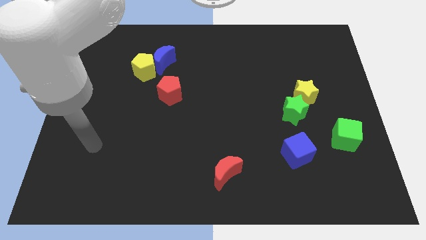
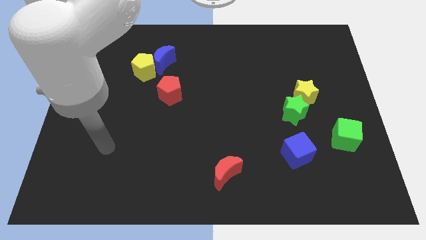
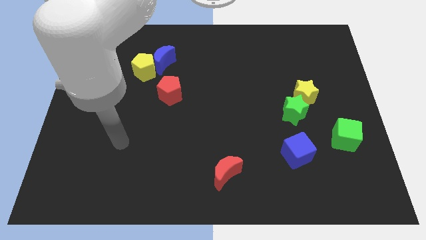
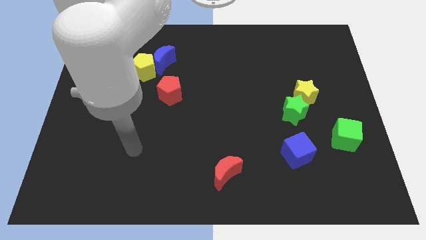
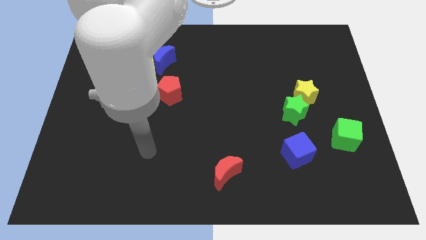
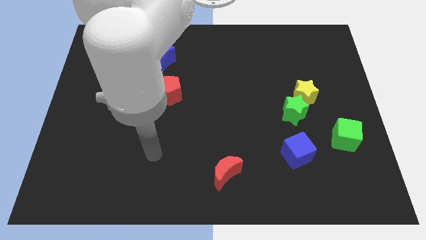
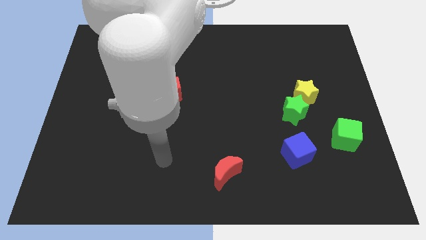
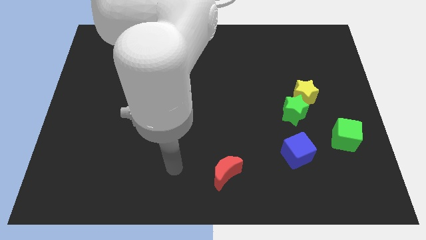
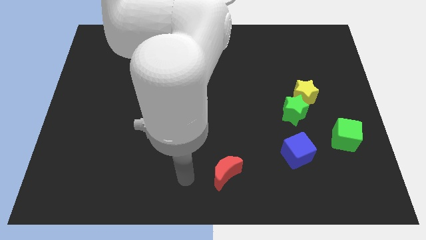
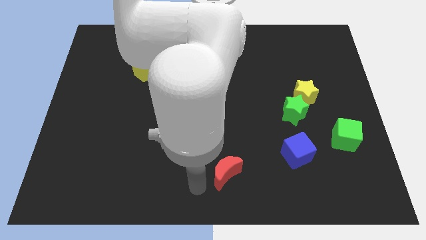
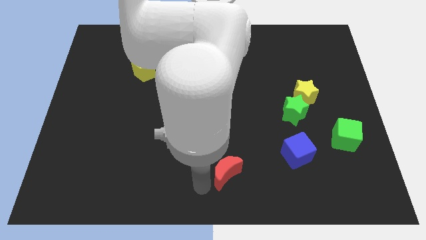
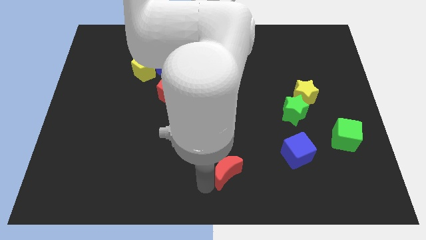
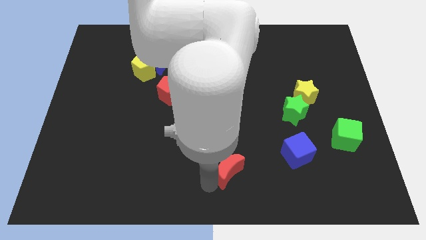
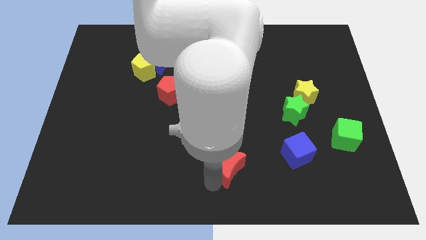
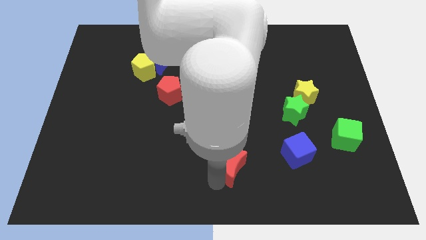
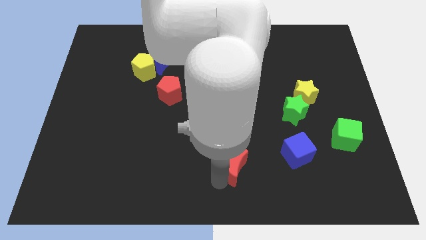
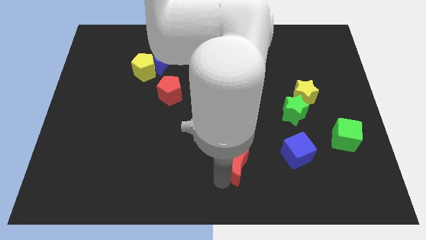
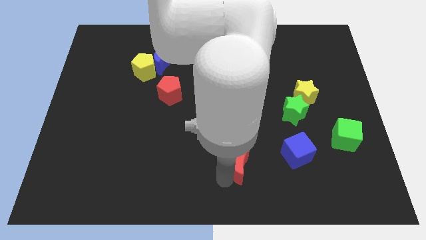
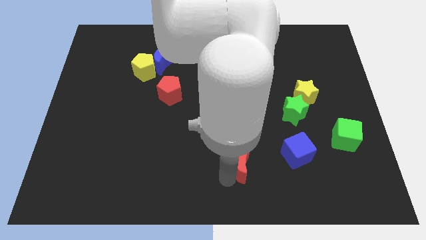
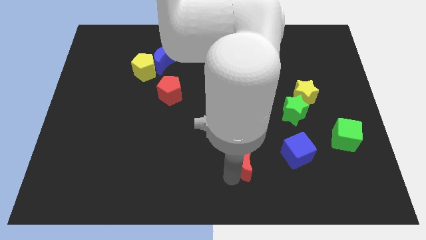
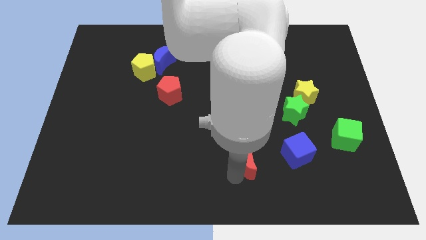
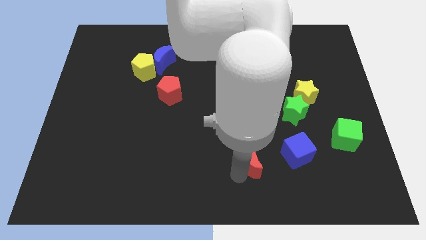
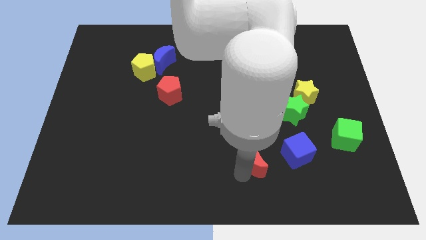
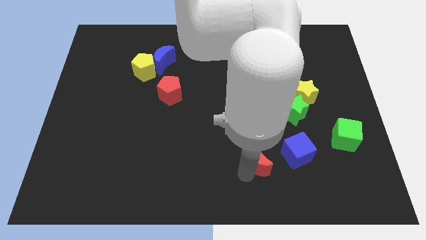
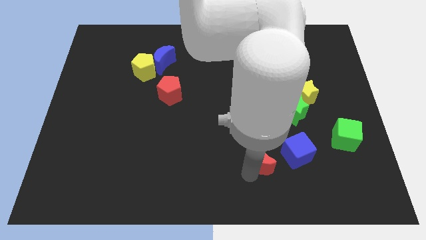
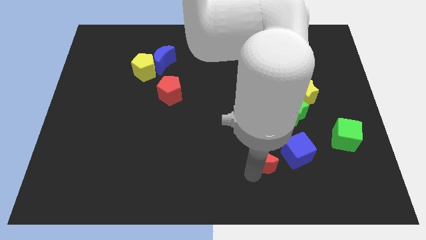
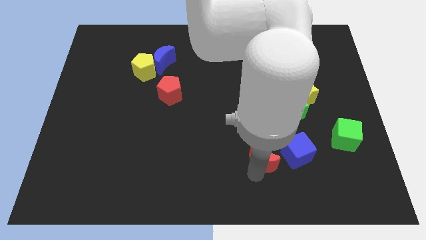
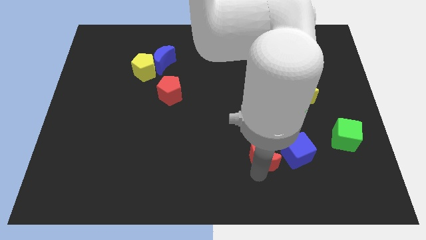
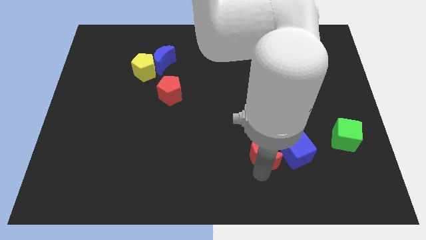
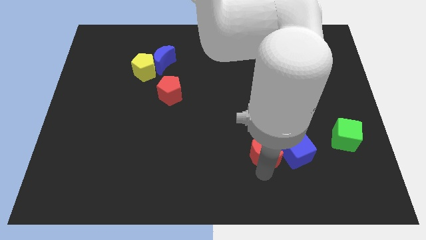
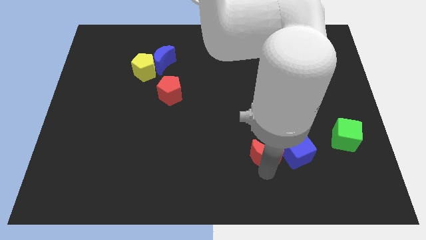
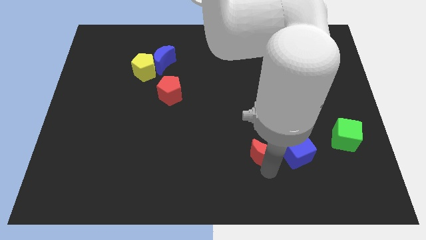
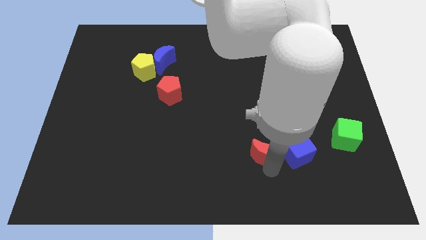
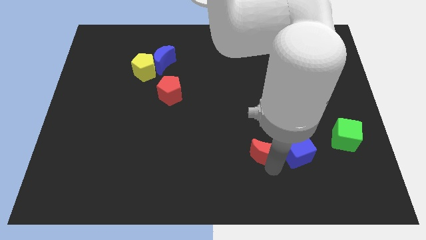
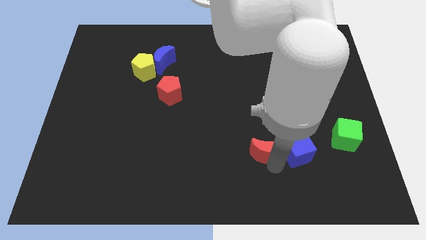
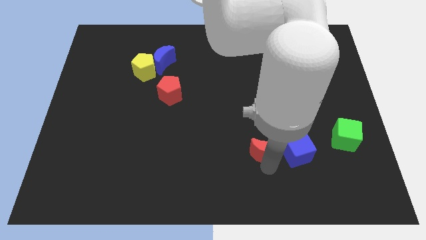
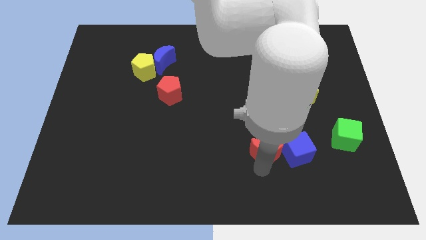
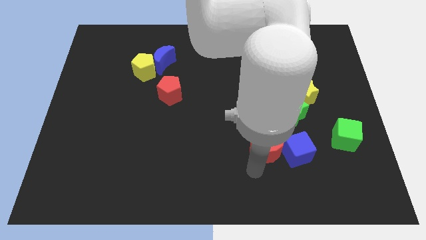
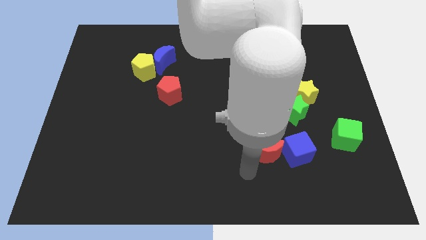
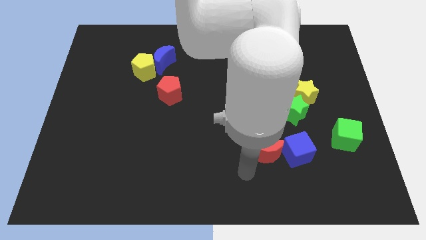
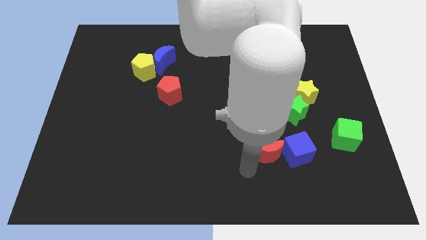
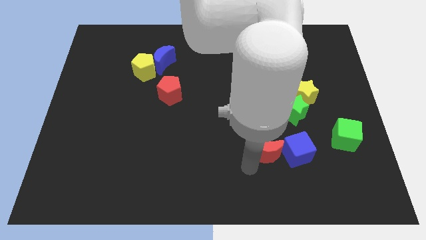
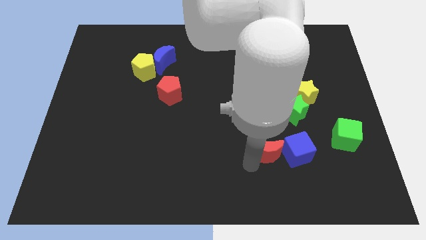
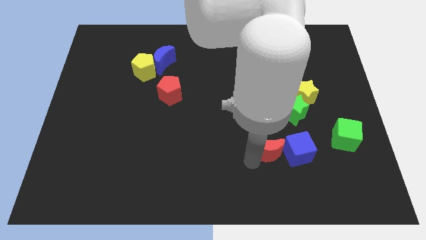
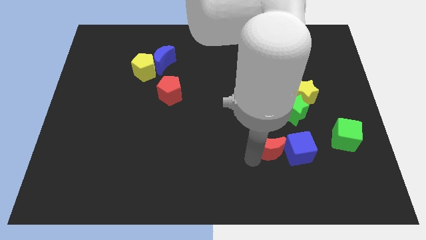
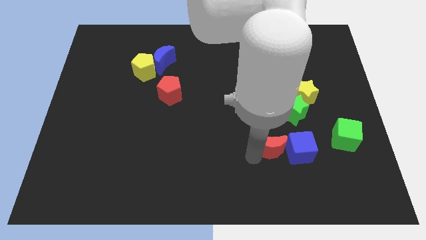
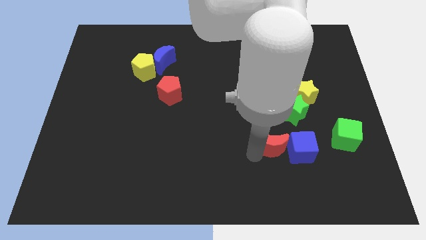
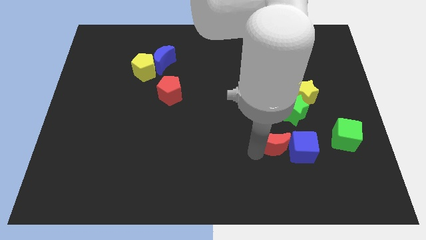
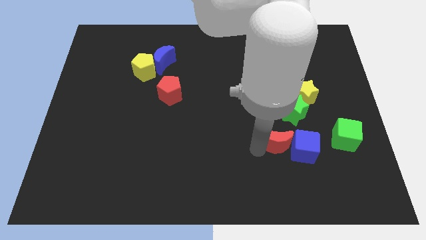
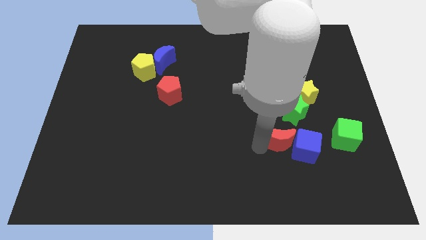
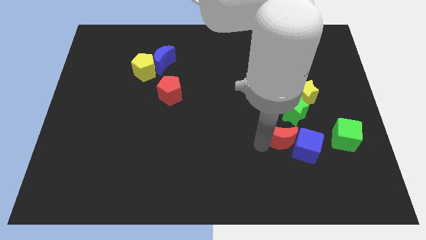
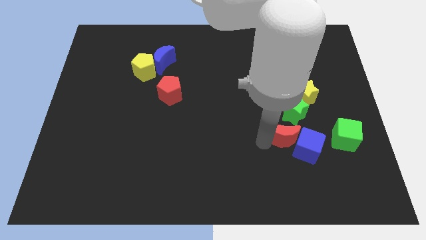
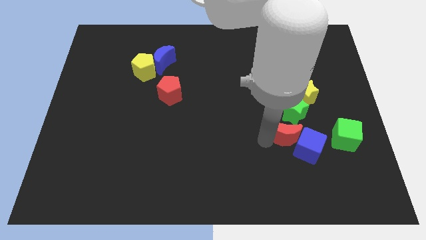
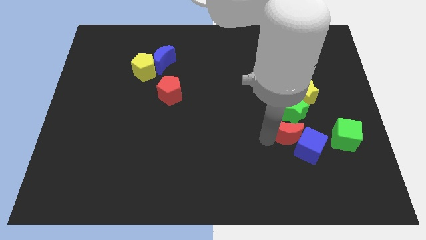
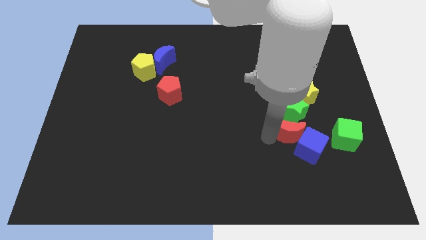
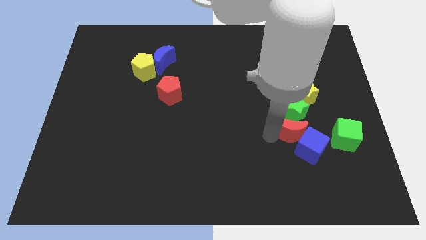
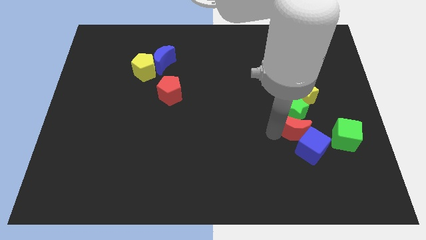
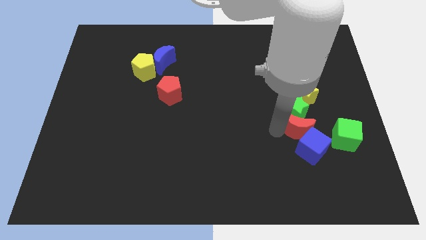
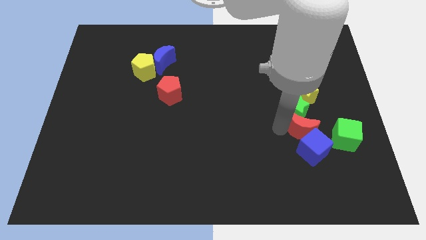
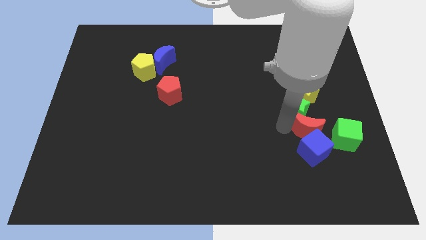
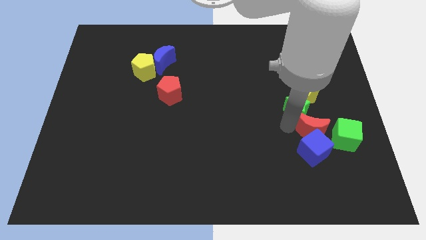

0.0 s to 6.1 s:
move the red moon upwards and right

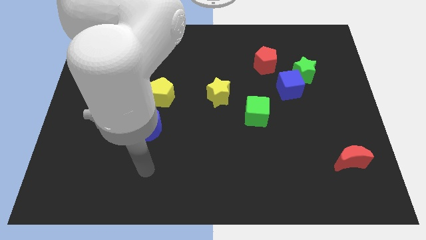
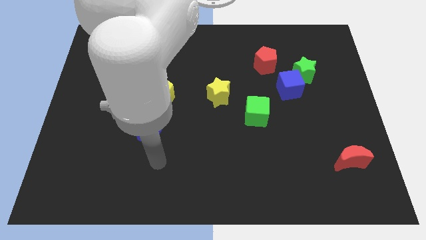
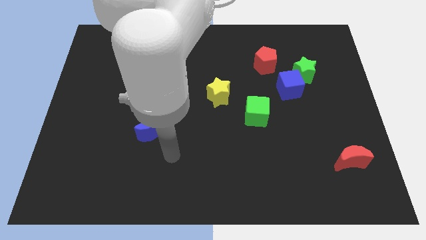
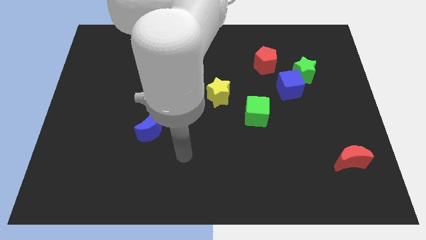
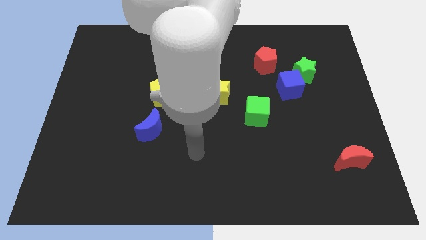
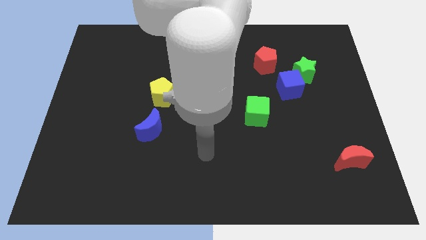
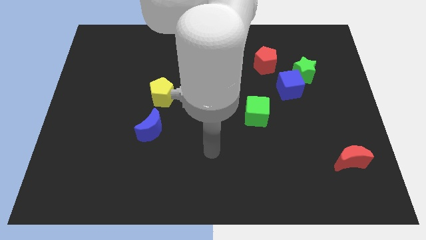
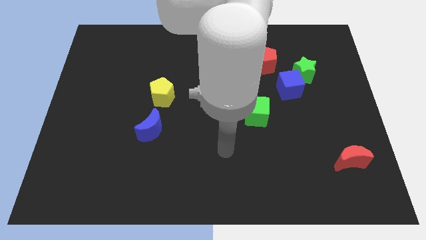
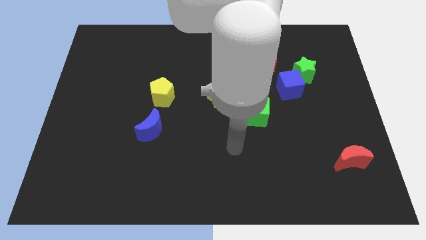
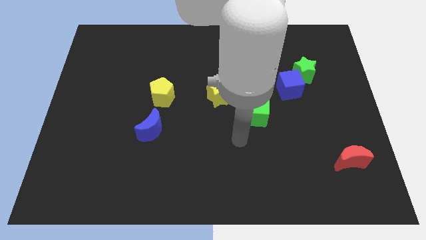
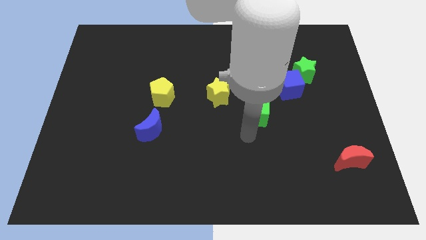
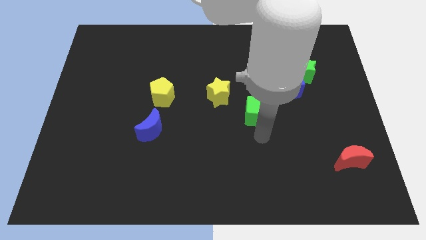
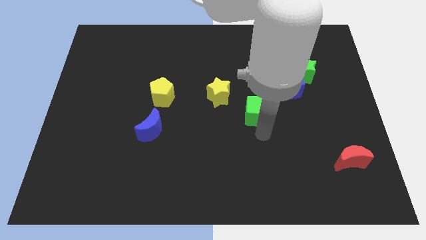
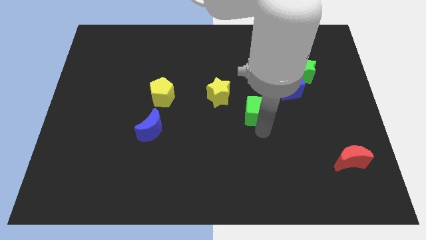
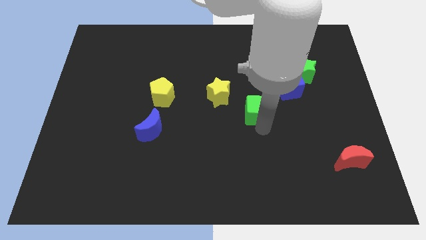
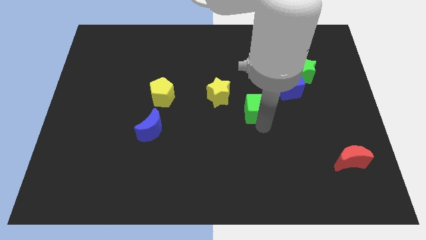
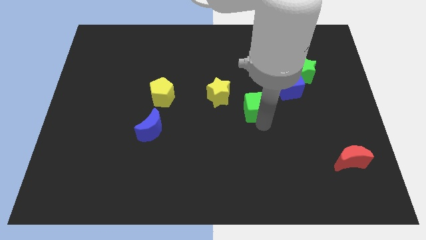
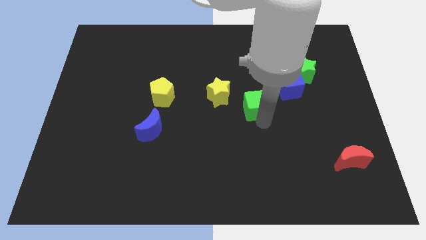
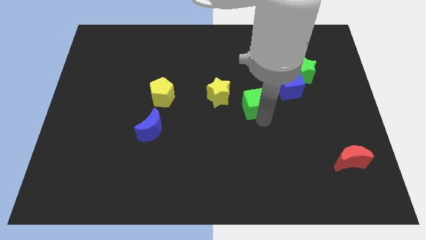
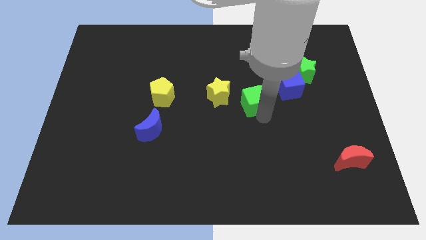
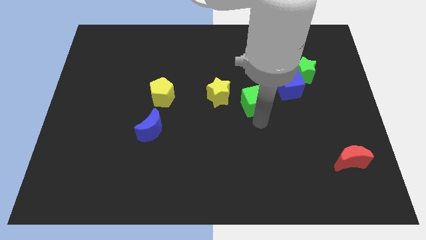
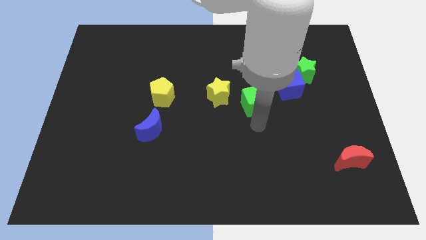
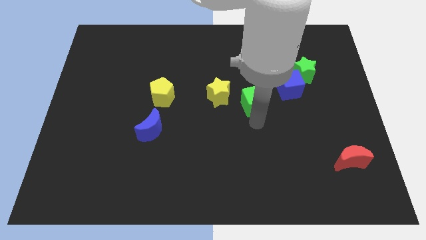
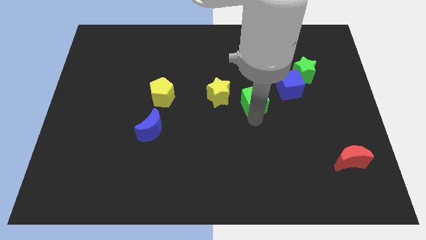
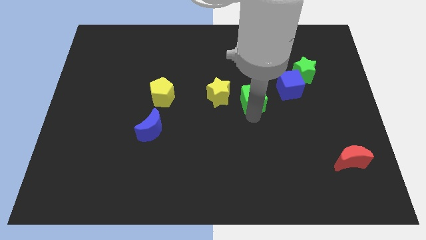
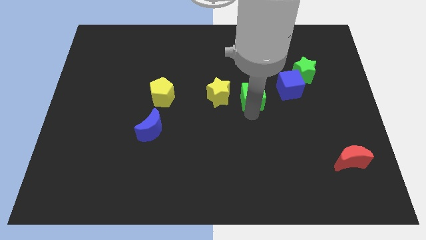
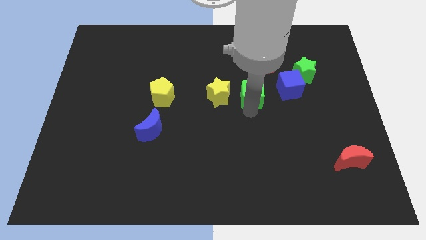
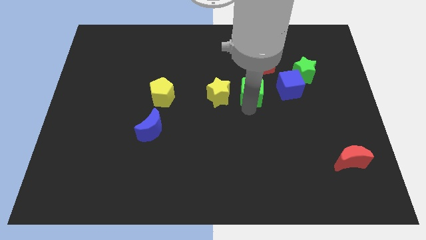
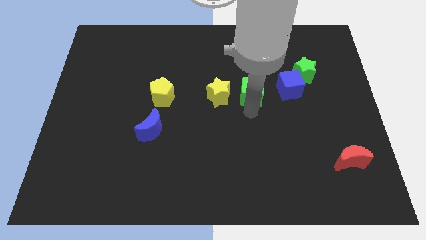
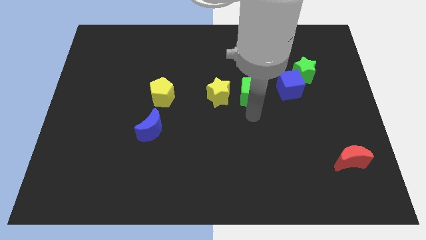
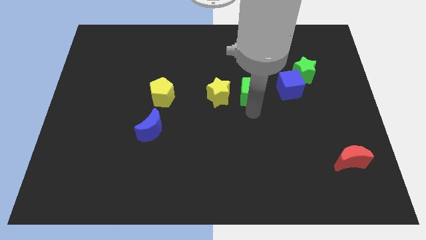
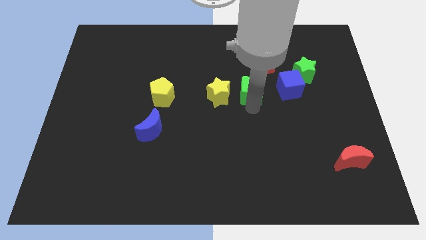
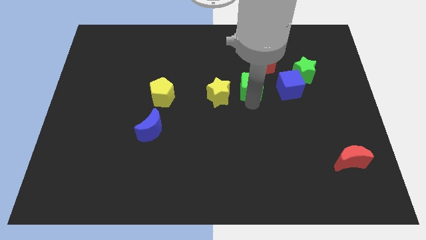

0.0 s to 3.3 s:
move the green cube up a bit
